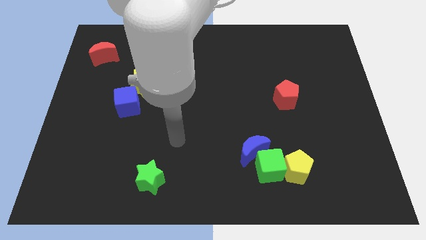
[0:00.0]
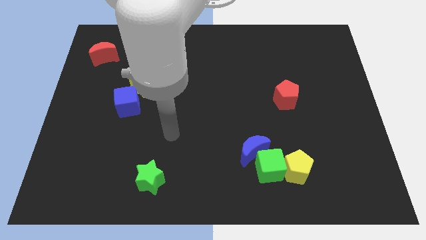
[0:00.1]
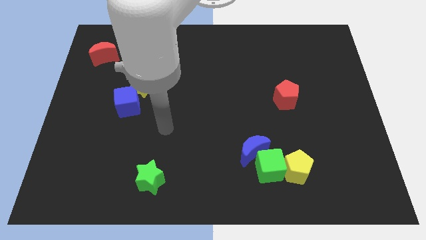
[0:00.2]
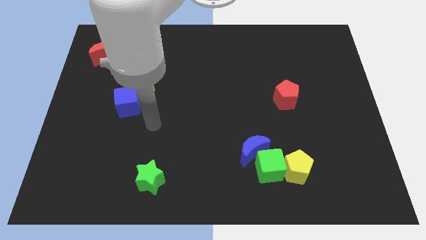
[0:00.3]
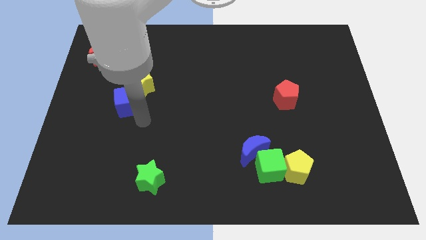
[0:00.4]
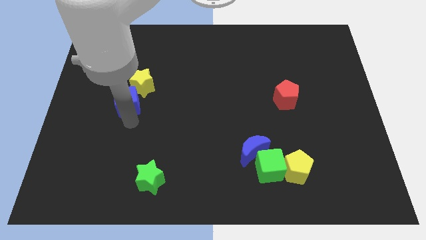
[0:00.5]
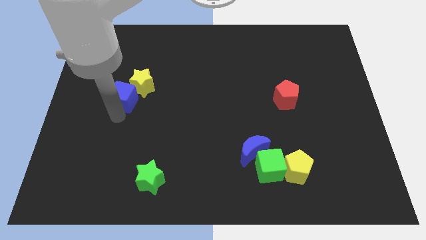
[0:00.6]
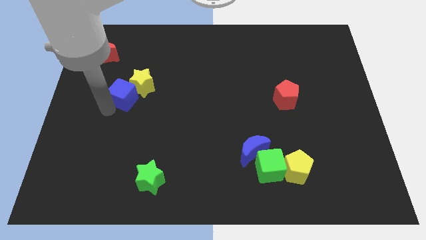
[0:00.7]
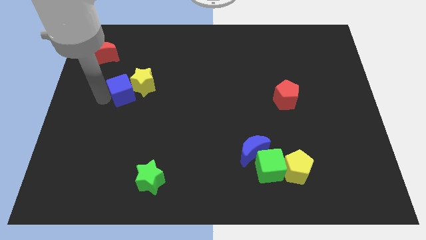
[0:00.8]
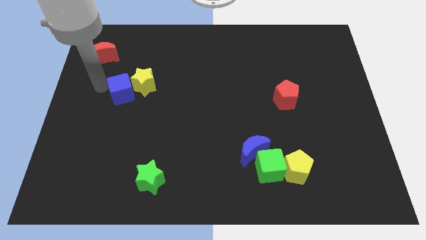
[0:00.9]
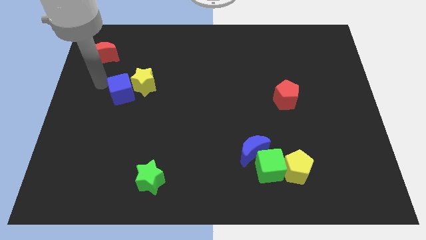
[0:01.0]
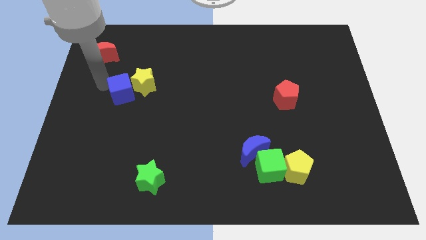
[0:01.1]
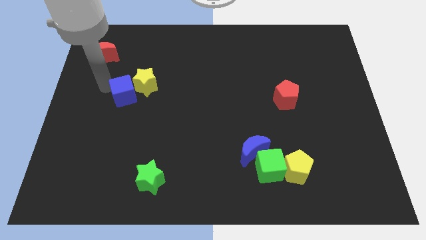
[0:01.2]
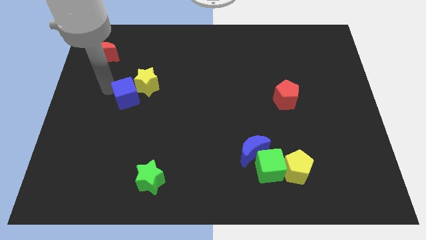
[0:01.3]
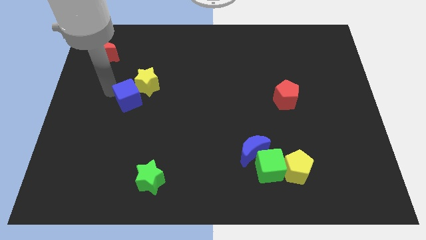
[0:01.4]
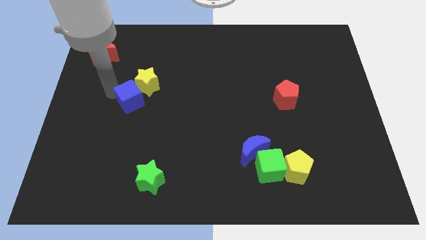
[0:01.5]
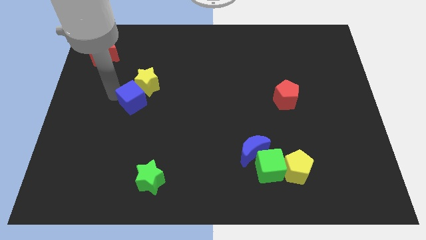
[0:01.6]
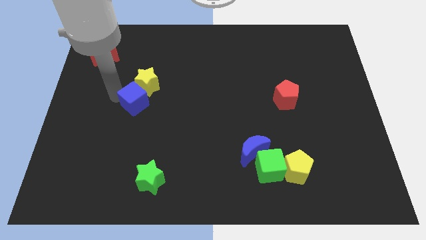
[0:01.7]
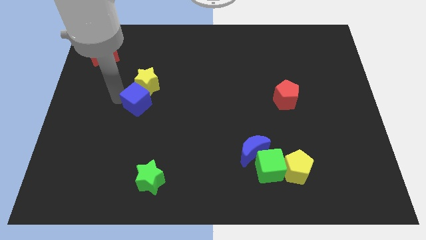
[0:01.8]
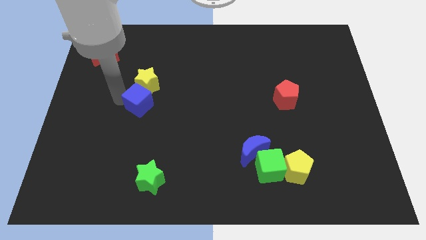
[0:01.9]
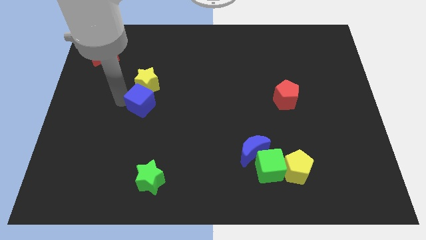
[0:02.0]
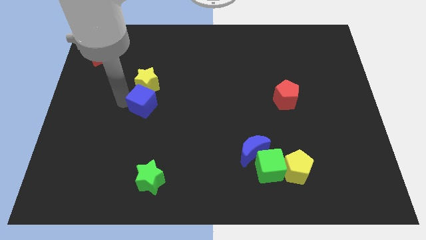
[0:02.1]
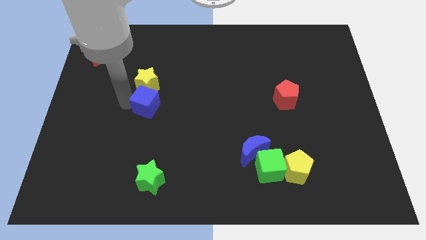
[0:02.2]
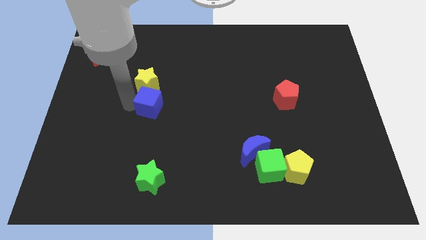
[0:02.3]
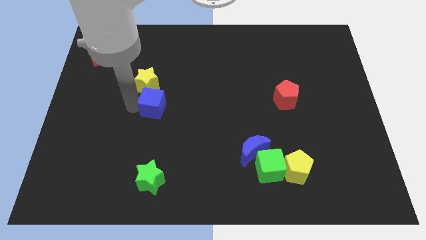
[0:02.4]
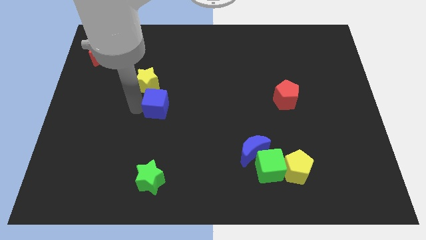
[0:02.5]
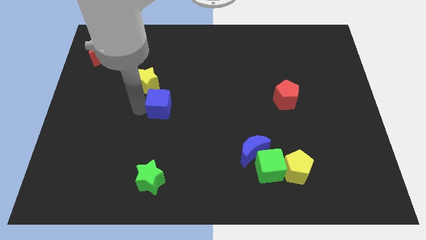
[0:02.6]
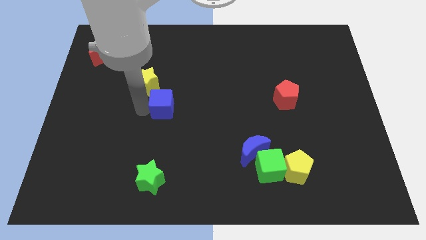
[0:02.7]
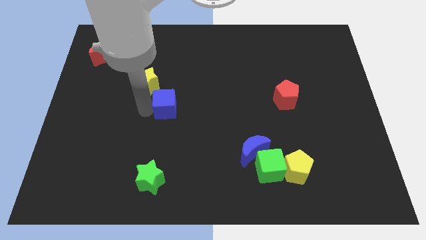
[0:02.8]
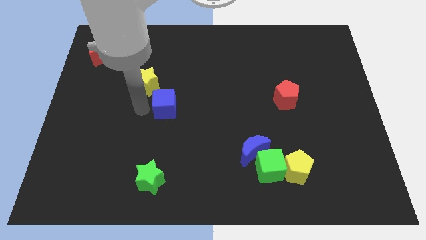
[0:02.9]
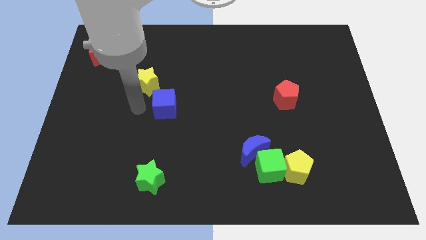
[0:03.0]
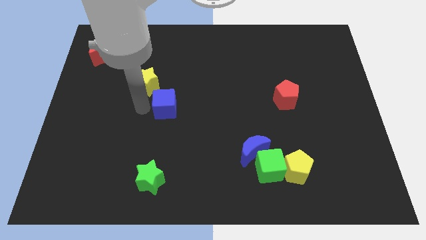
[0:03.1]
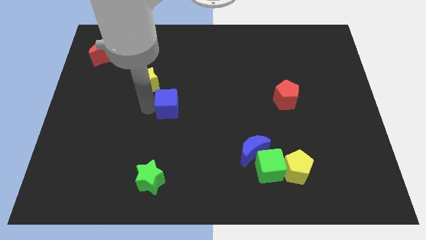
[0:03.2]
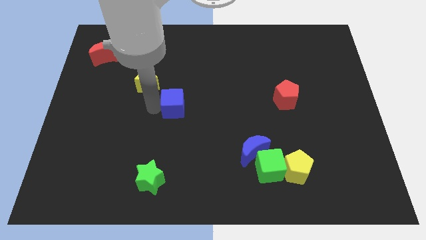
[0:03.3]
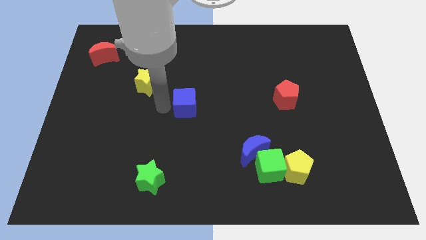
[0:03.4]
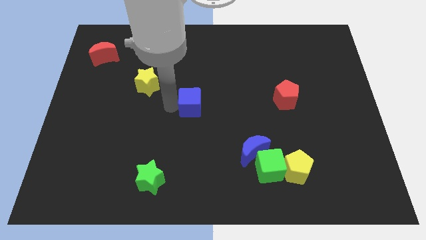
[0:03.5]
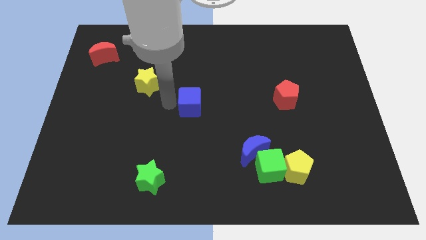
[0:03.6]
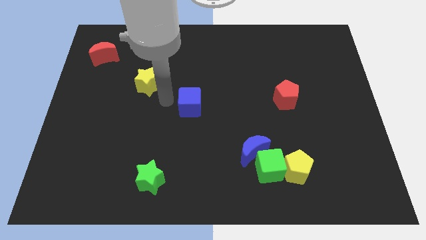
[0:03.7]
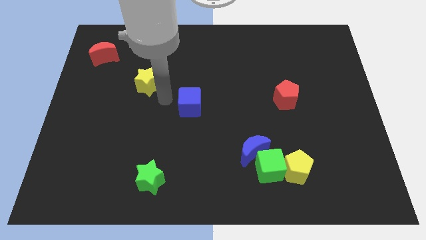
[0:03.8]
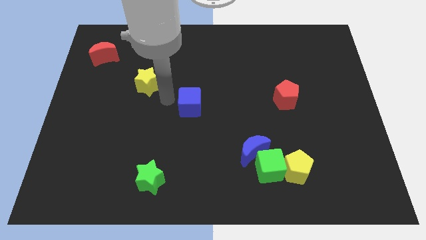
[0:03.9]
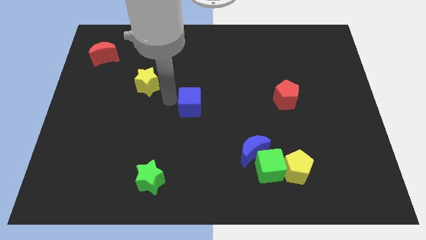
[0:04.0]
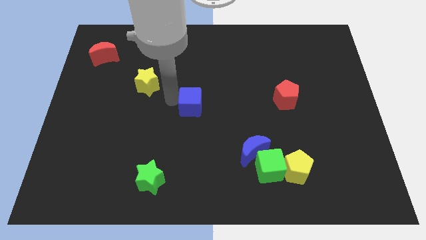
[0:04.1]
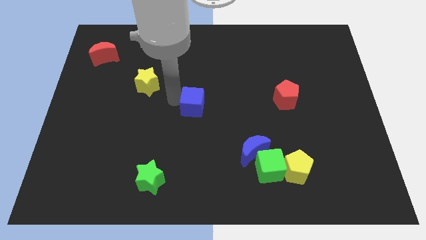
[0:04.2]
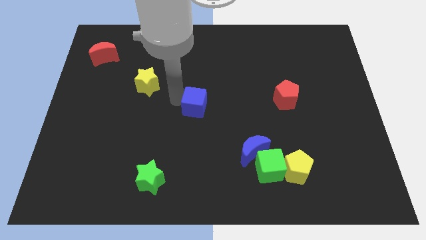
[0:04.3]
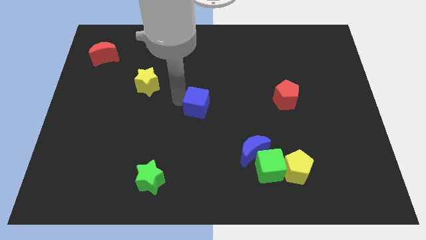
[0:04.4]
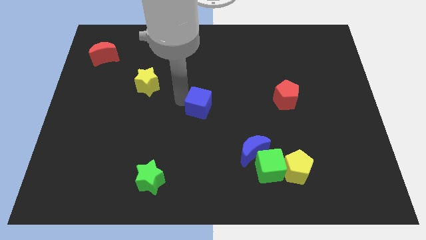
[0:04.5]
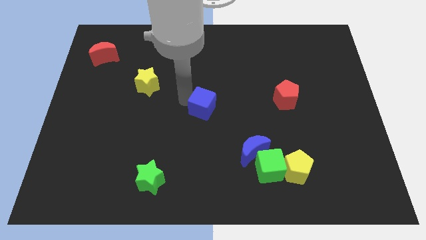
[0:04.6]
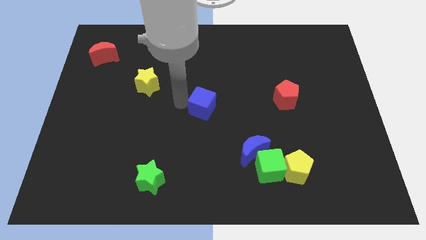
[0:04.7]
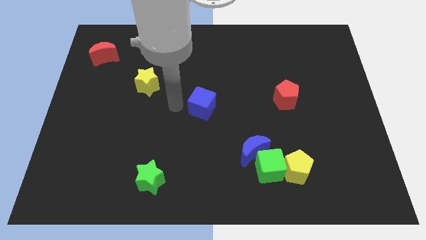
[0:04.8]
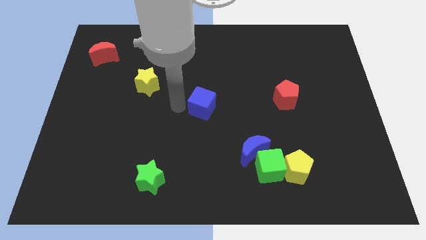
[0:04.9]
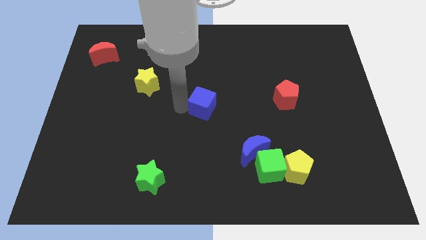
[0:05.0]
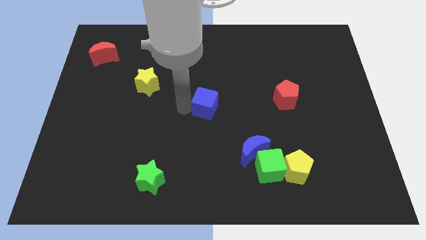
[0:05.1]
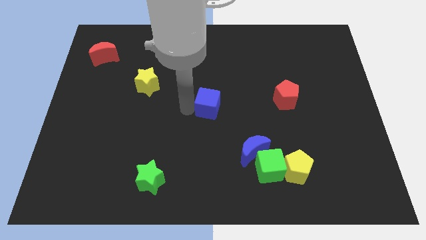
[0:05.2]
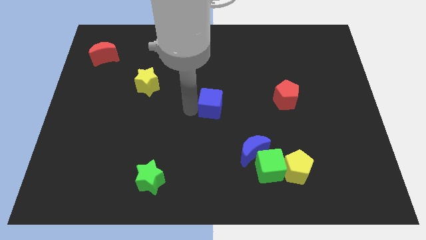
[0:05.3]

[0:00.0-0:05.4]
slide the blue cube right

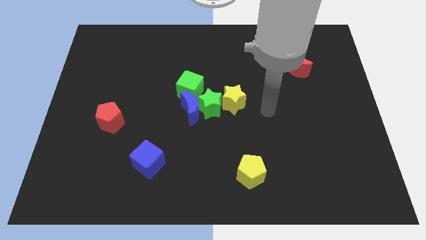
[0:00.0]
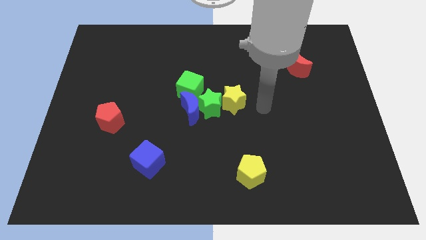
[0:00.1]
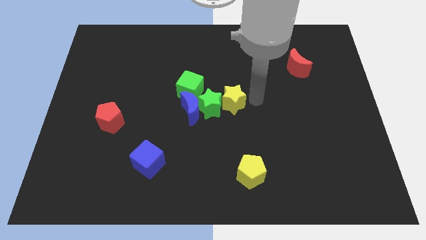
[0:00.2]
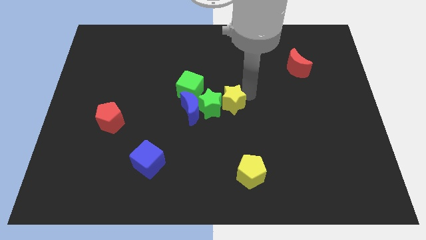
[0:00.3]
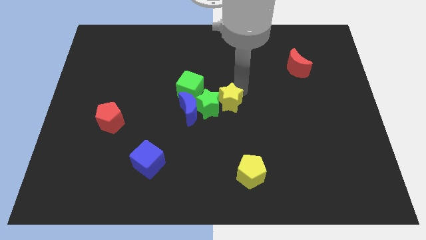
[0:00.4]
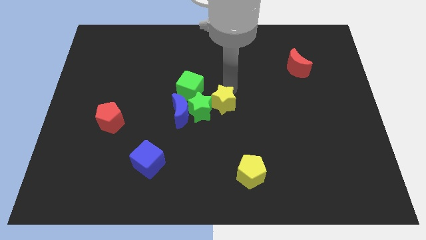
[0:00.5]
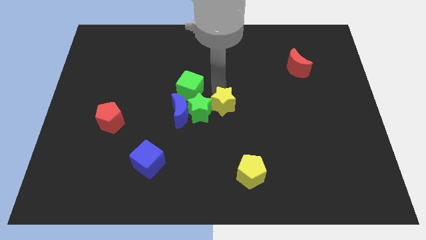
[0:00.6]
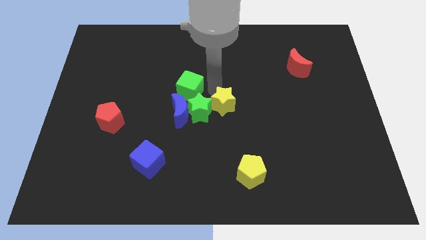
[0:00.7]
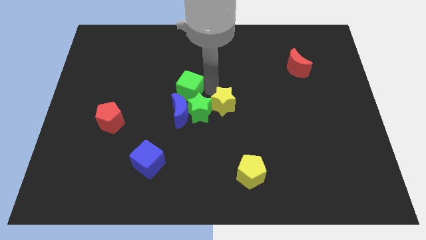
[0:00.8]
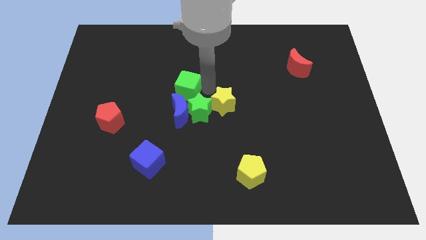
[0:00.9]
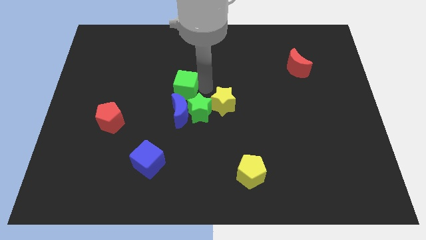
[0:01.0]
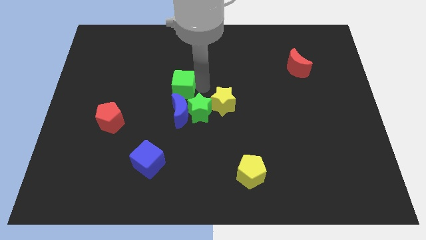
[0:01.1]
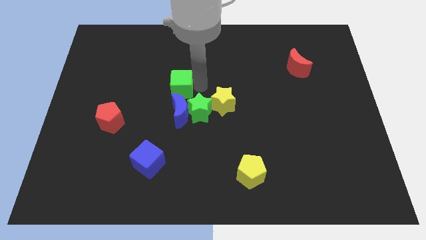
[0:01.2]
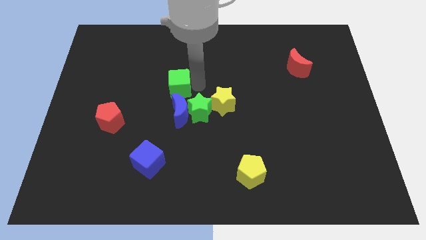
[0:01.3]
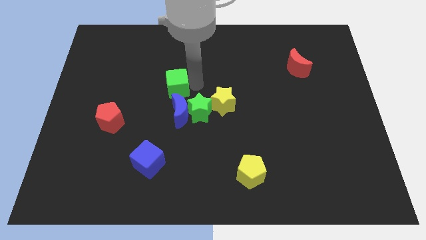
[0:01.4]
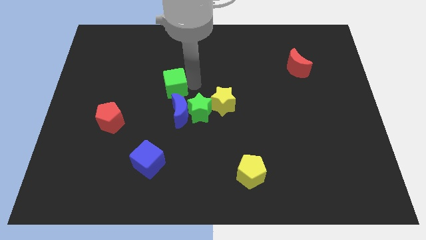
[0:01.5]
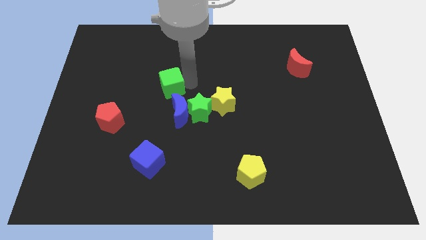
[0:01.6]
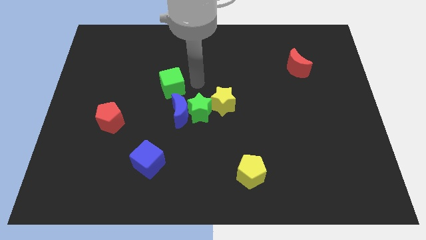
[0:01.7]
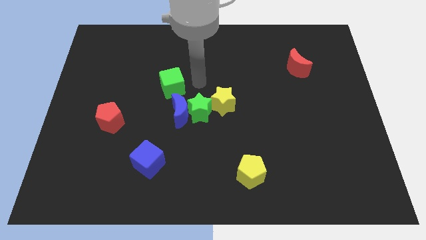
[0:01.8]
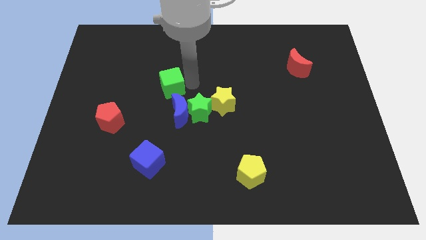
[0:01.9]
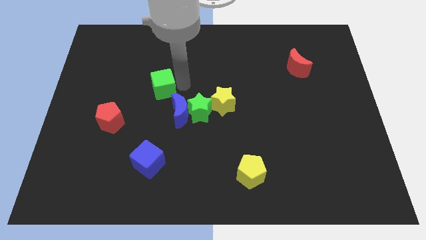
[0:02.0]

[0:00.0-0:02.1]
move the green cube somewhat to the left

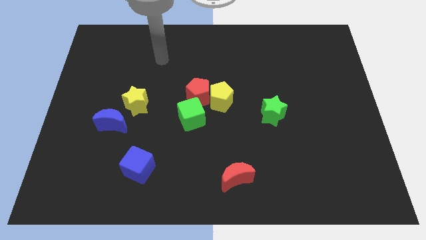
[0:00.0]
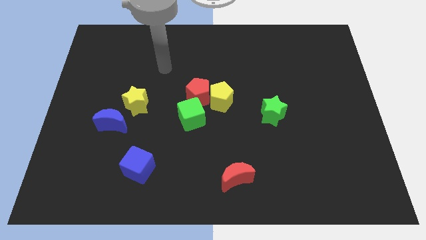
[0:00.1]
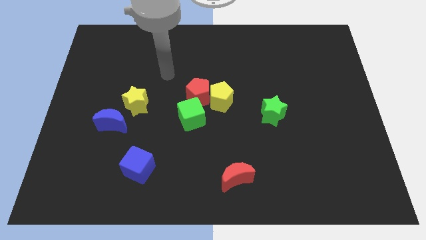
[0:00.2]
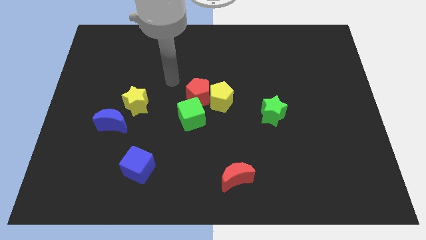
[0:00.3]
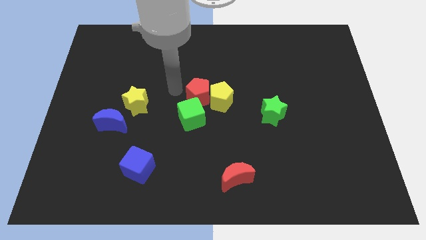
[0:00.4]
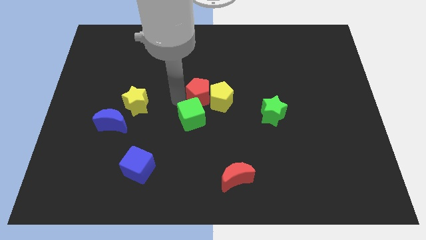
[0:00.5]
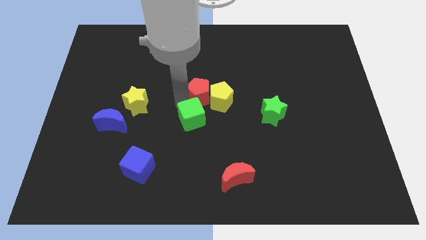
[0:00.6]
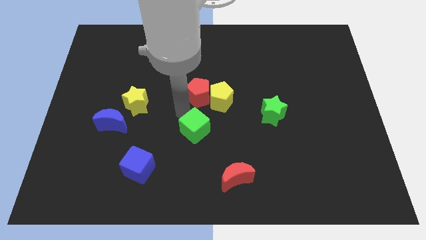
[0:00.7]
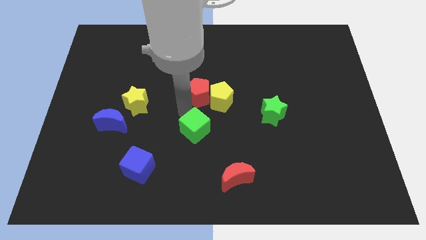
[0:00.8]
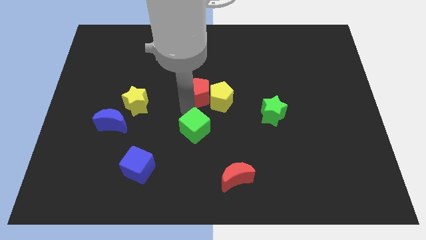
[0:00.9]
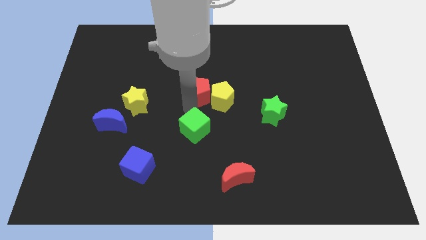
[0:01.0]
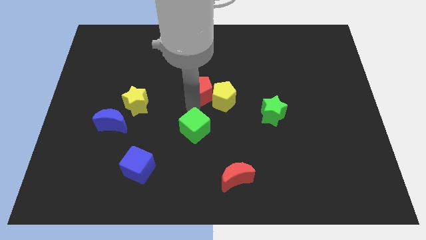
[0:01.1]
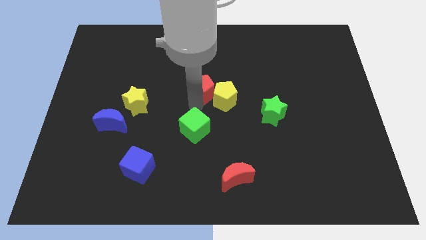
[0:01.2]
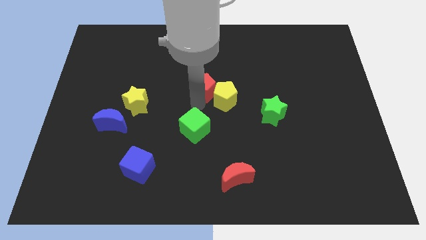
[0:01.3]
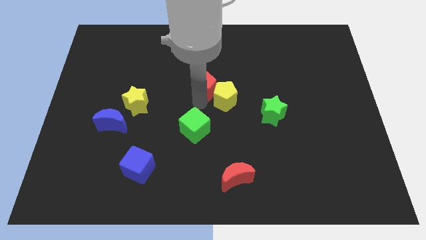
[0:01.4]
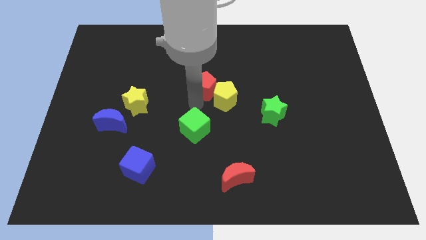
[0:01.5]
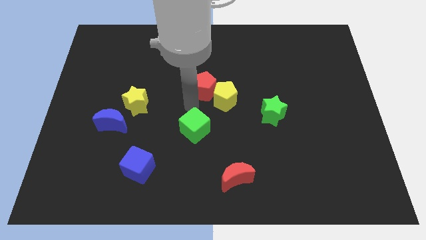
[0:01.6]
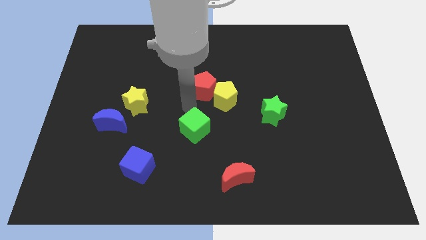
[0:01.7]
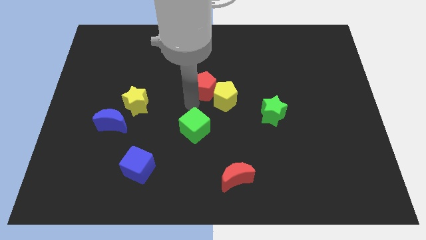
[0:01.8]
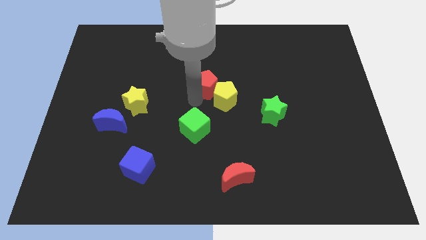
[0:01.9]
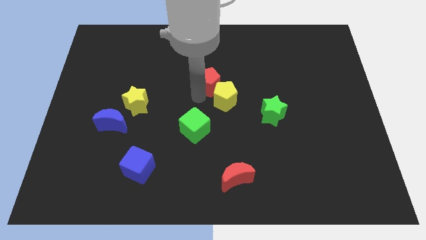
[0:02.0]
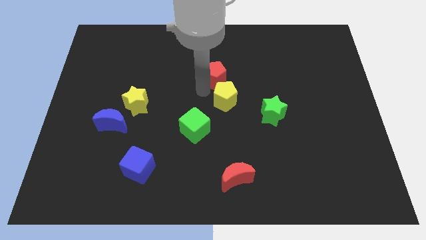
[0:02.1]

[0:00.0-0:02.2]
slightly move the red pentagon up and to the right diagonally
